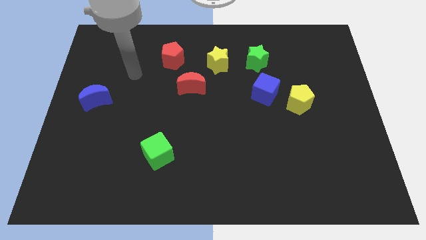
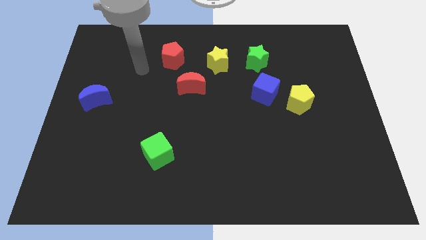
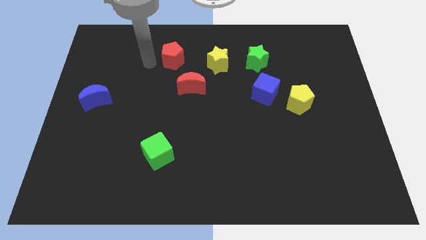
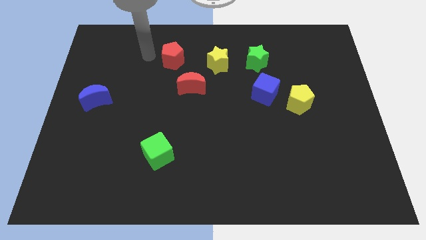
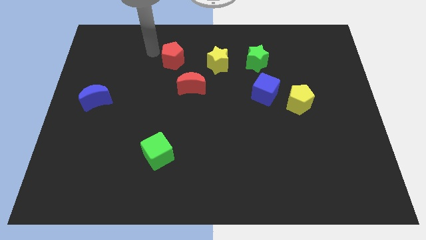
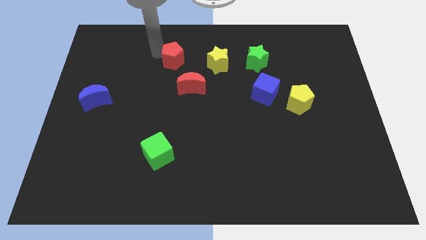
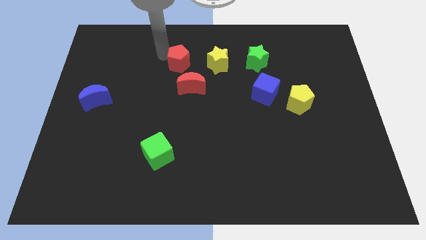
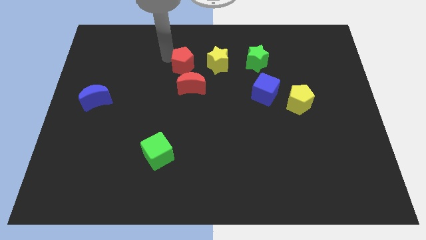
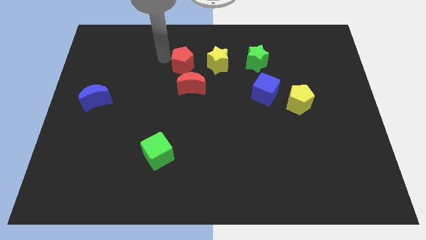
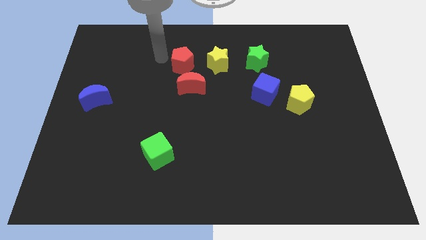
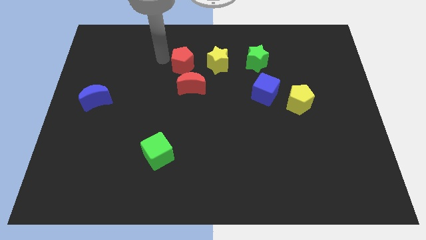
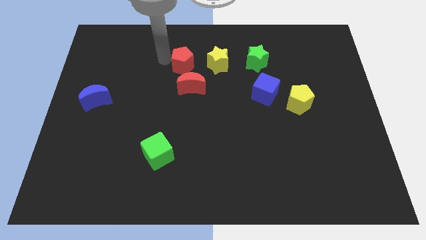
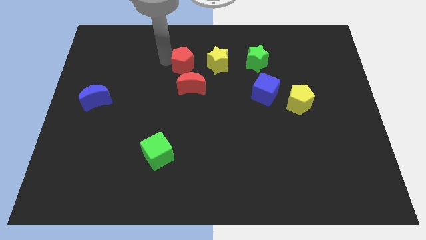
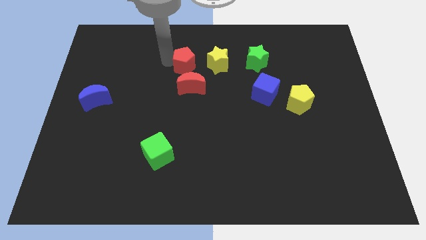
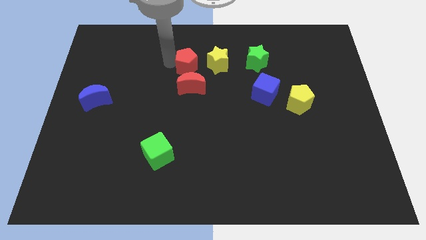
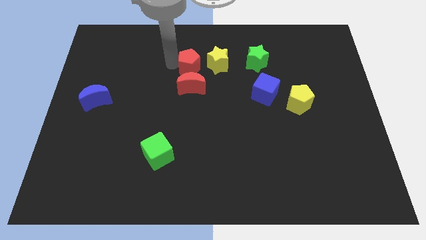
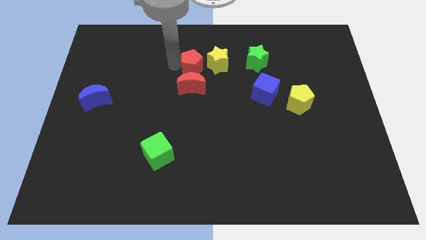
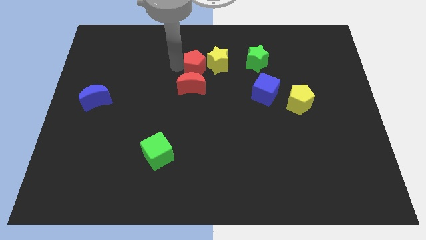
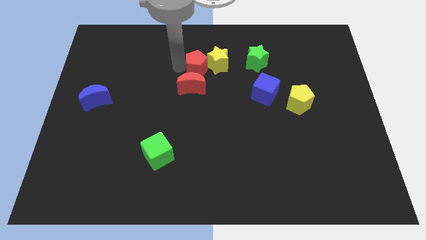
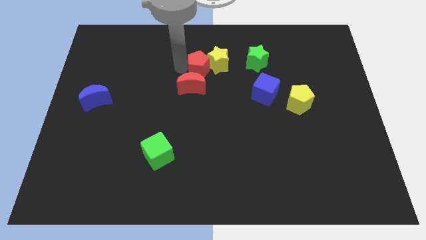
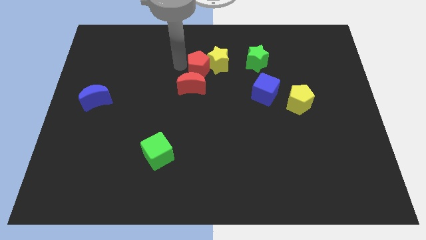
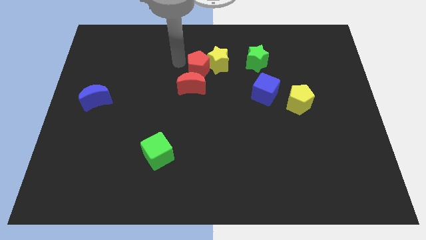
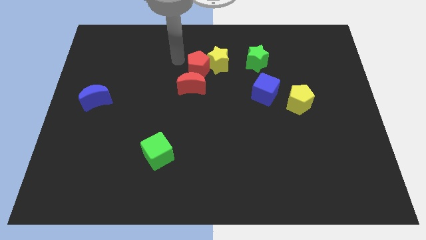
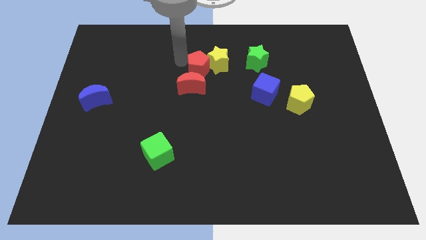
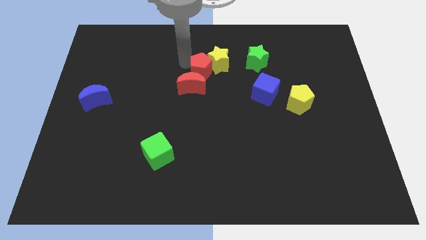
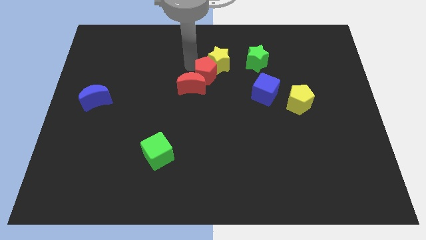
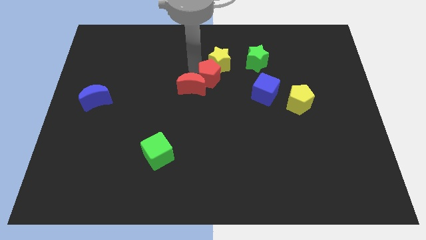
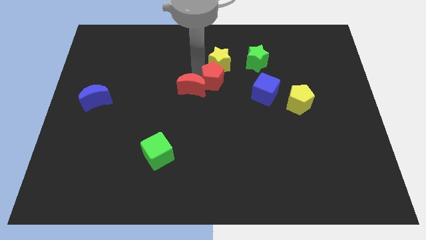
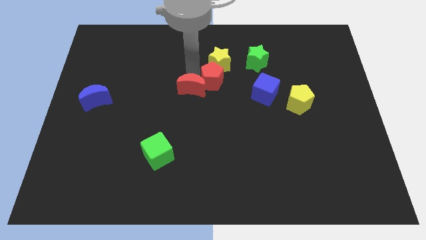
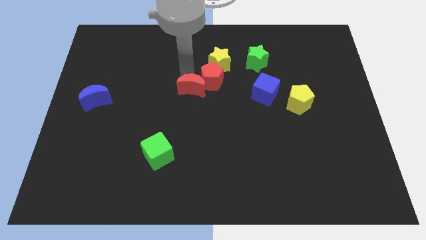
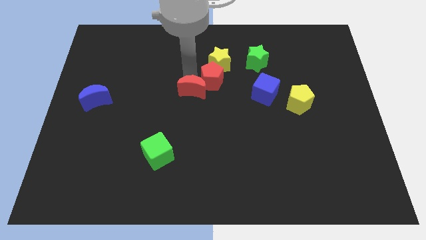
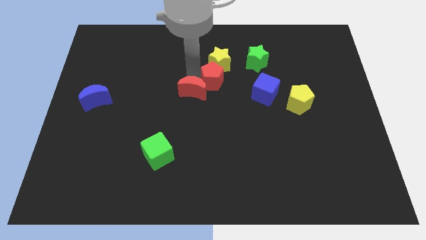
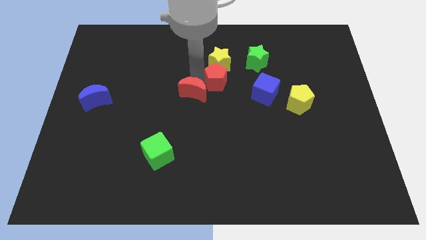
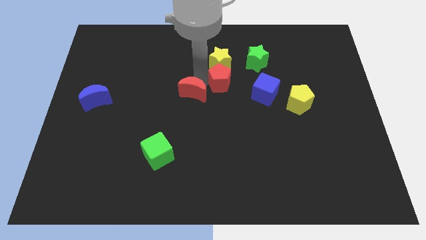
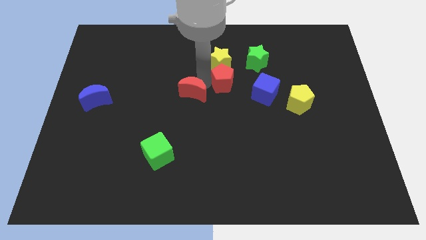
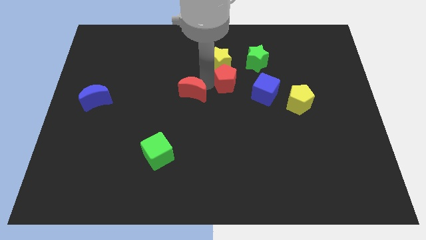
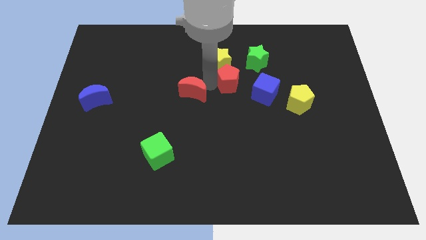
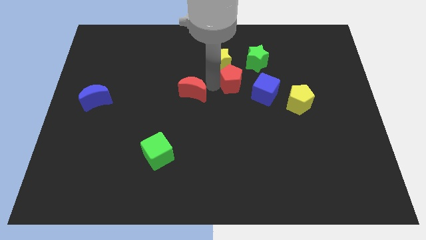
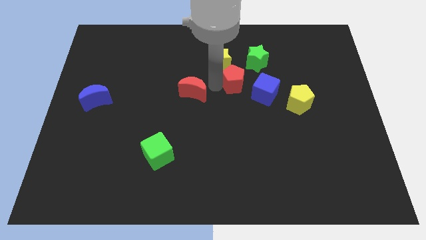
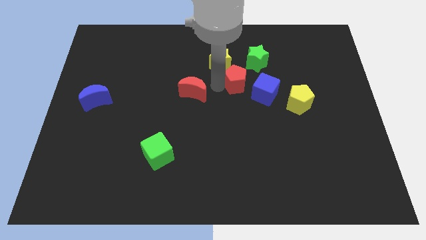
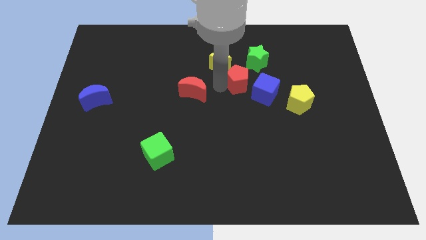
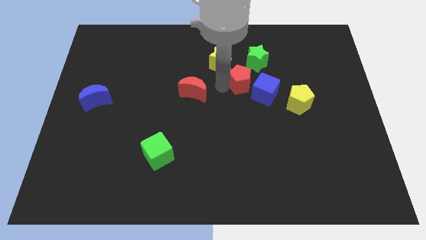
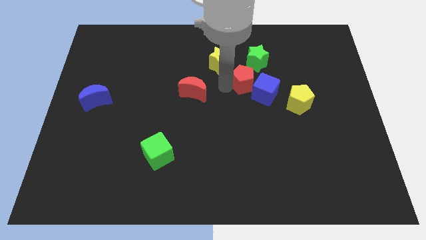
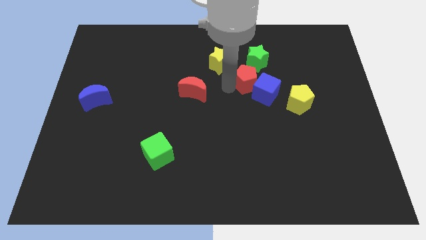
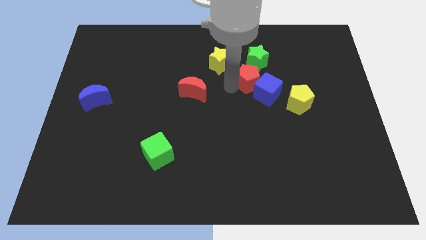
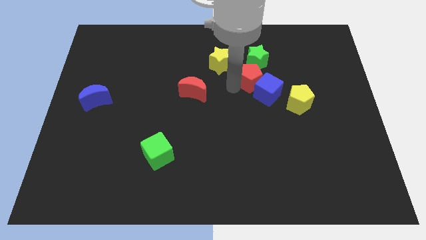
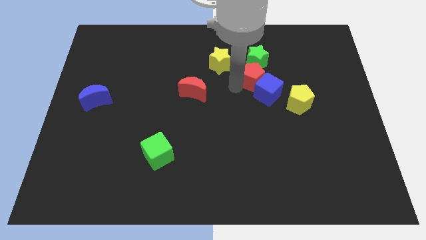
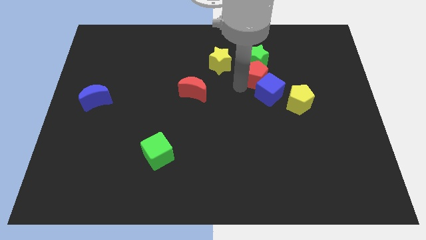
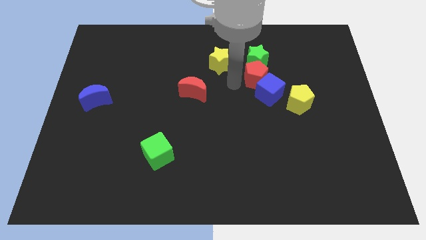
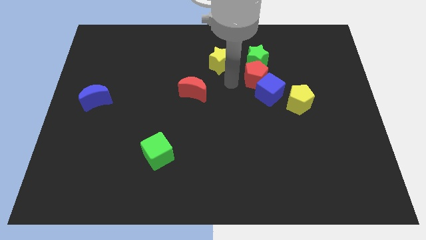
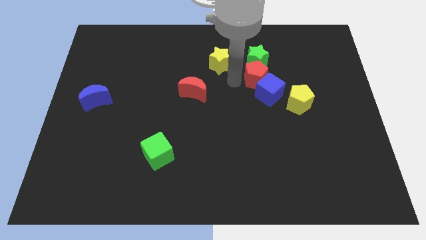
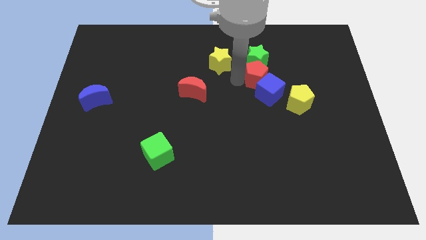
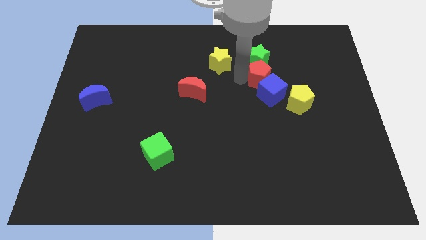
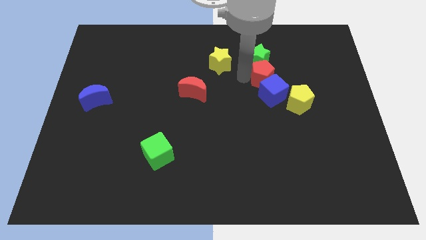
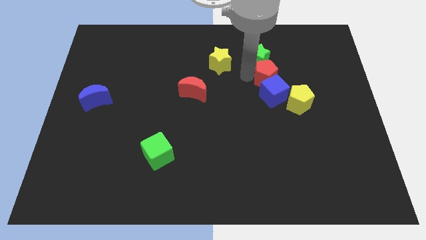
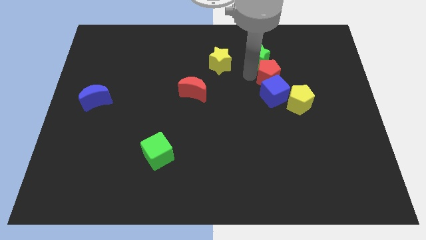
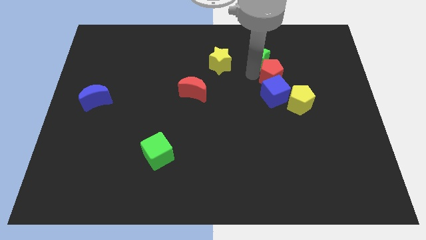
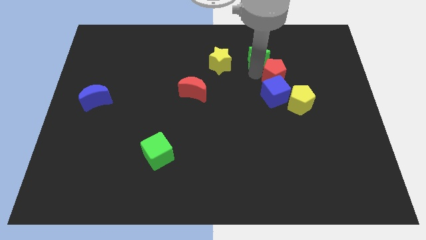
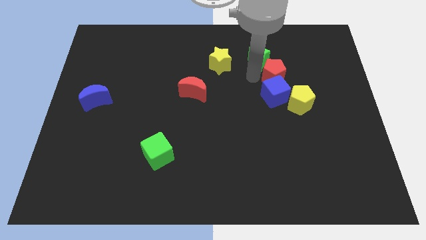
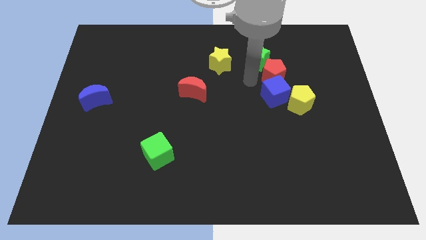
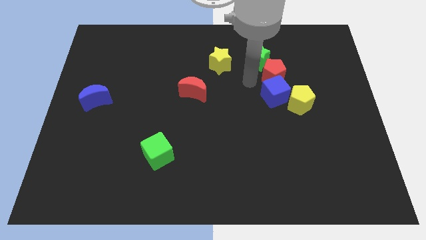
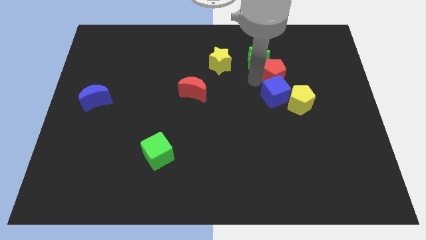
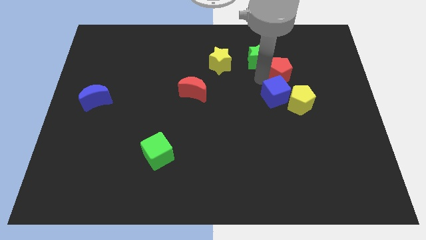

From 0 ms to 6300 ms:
push the red pentagon to the top side of the yellow pentagon

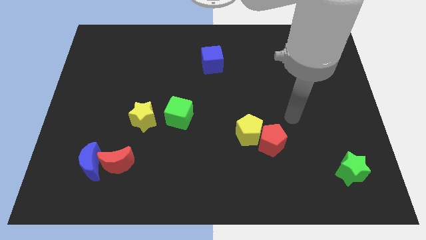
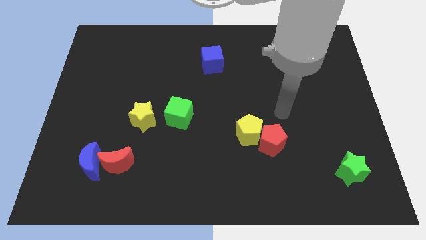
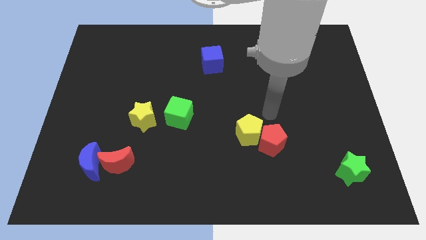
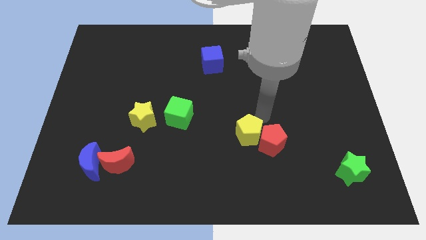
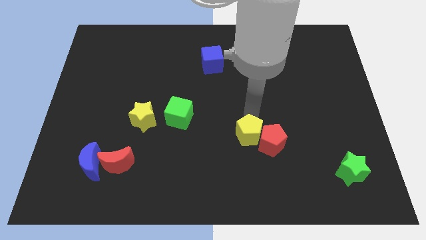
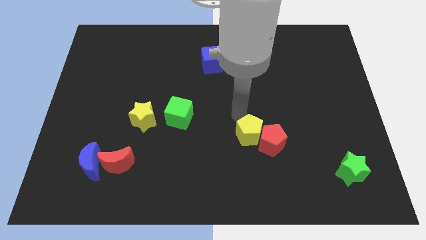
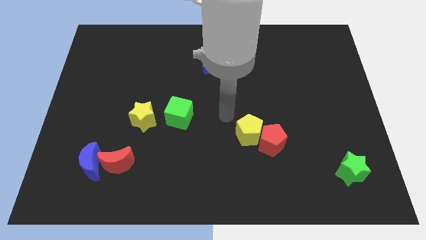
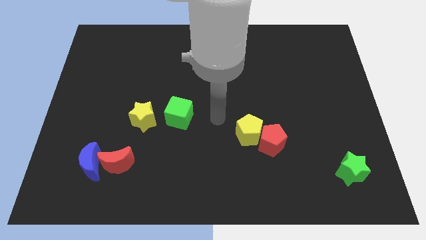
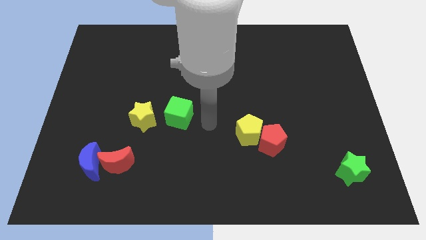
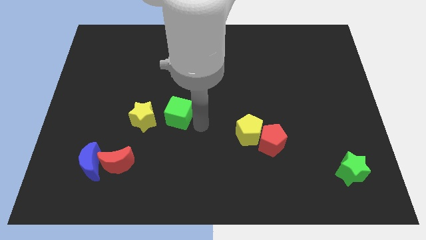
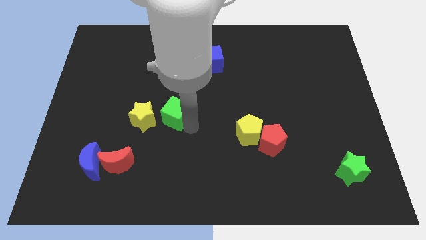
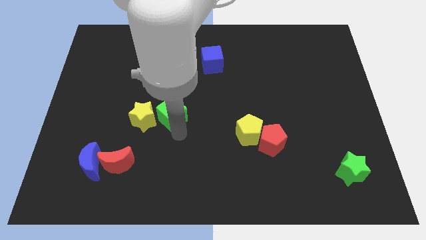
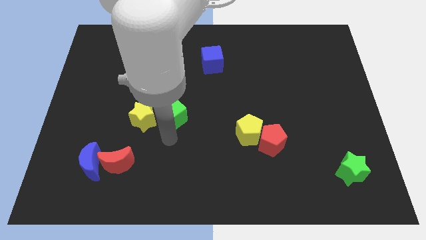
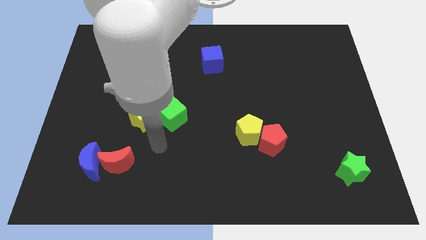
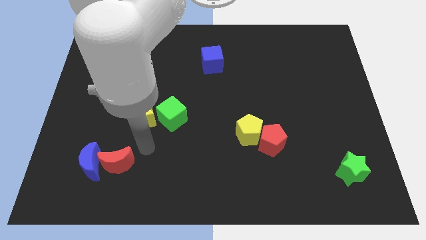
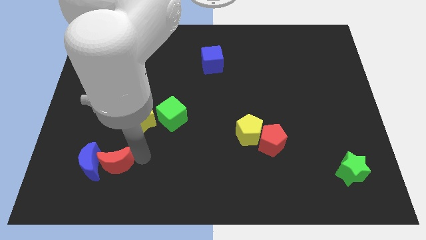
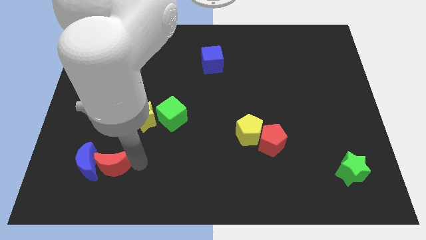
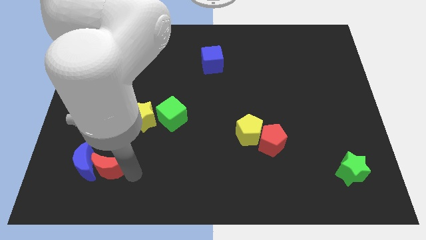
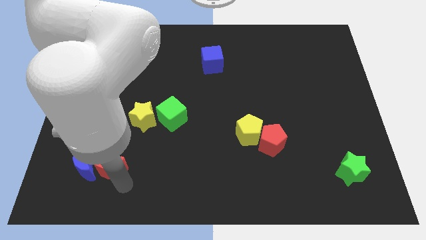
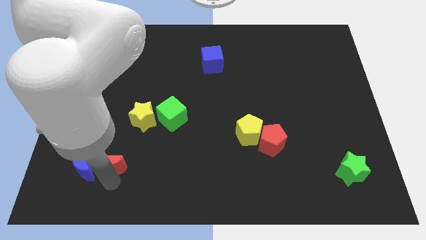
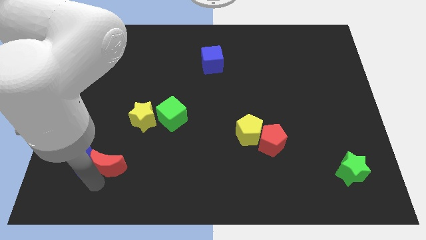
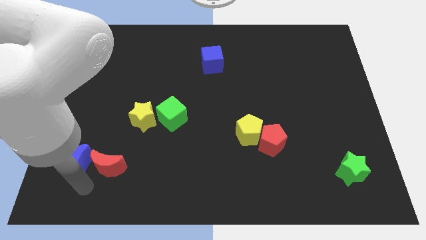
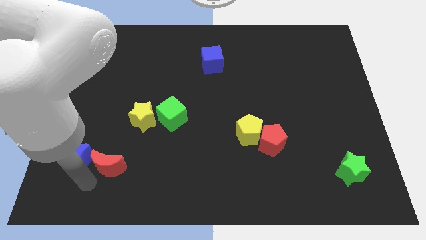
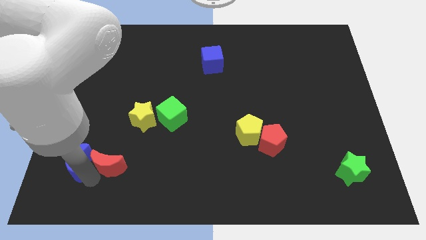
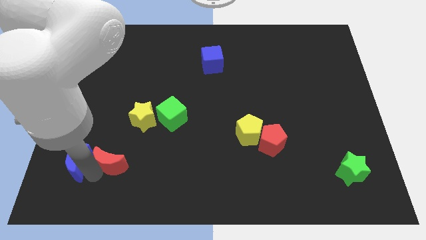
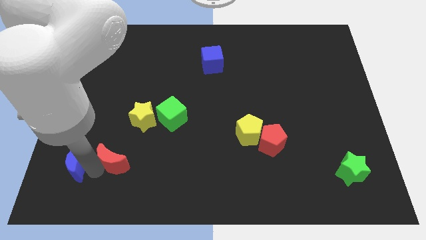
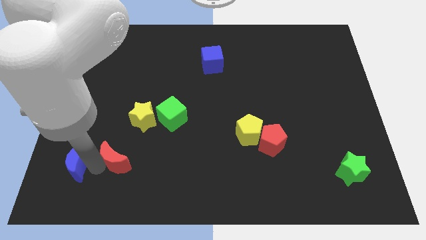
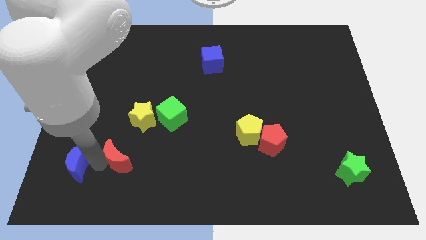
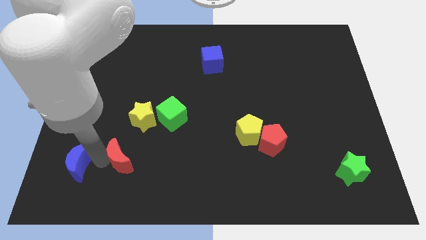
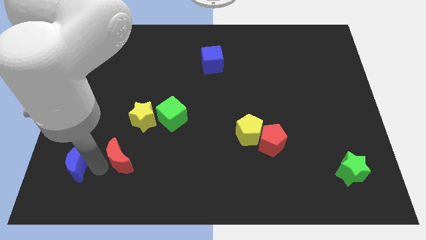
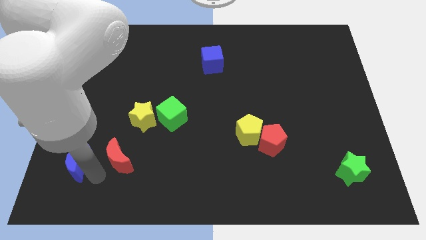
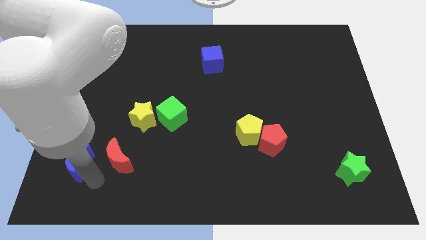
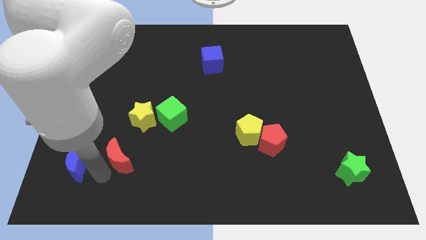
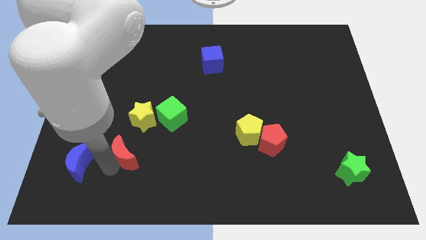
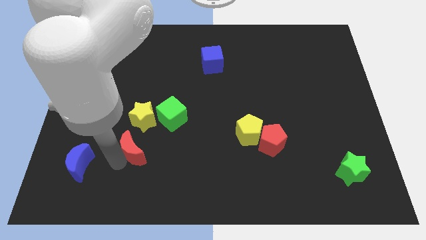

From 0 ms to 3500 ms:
push the red moon diagonally down and to the left of the green cube
